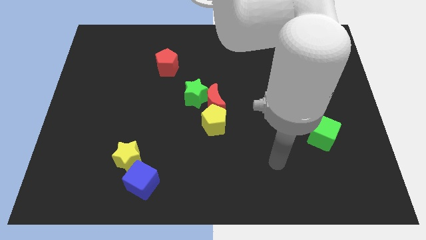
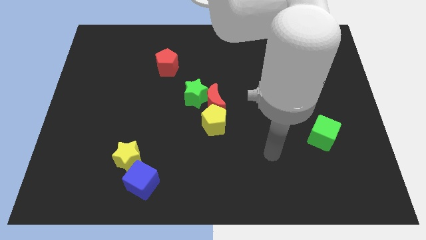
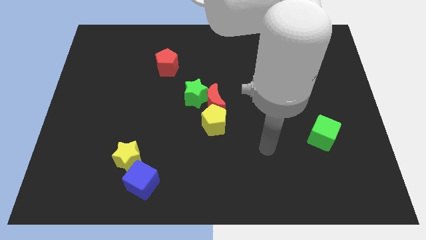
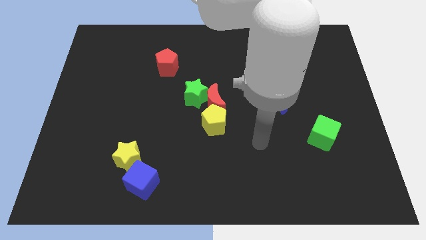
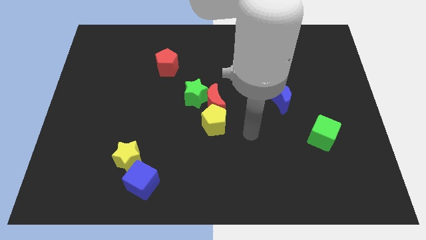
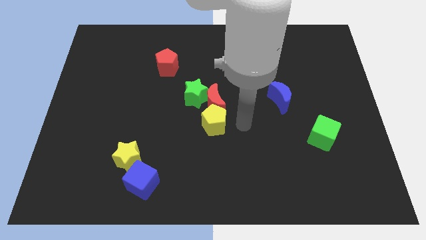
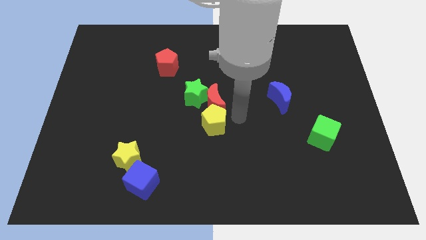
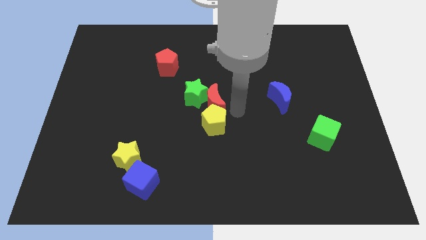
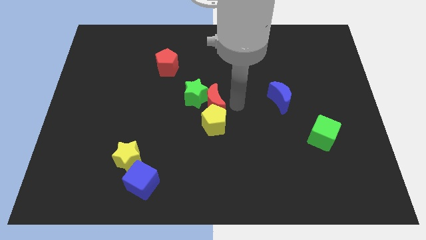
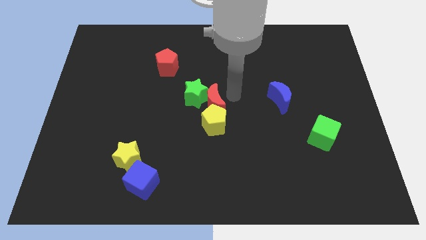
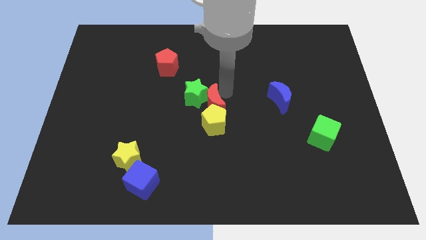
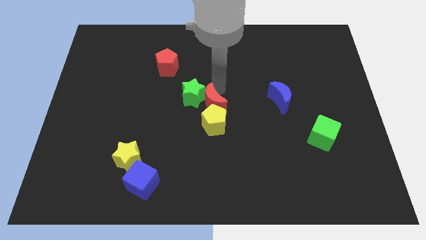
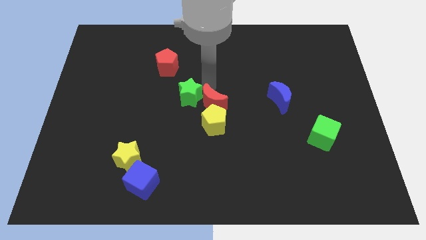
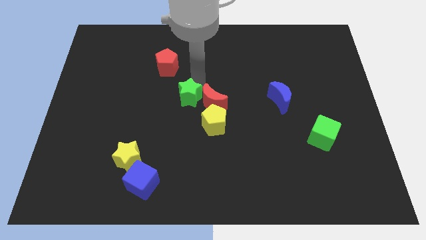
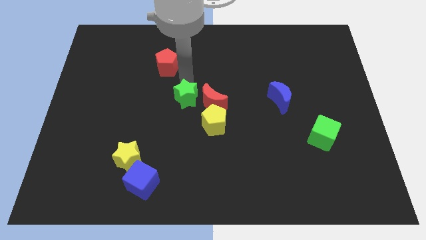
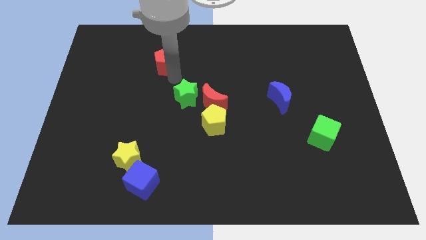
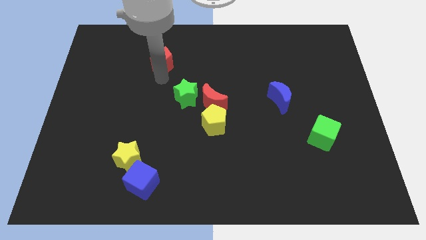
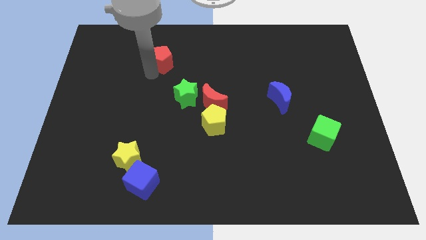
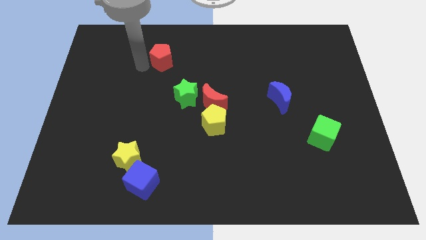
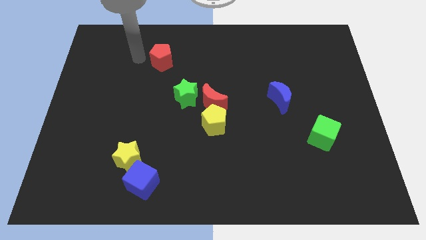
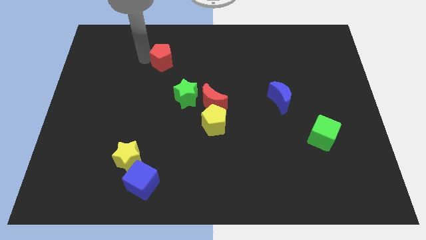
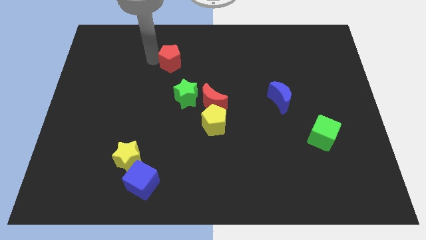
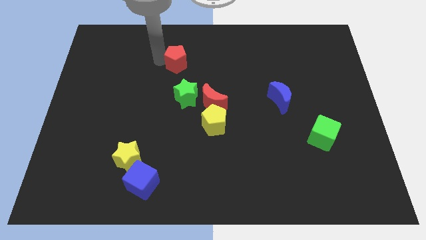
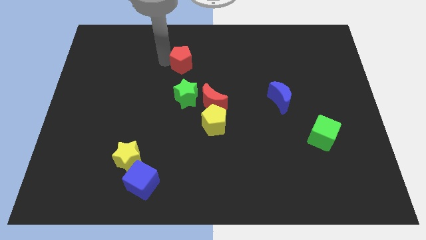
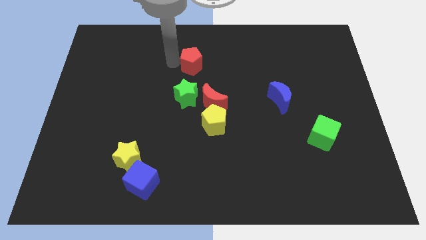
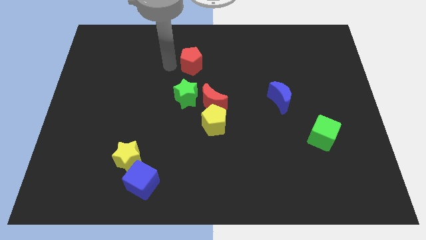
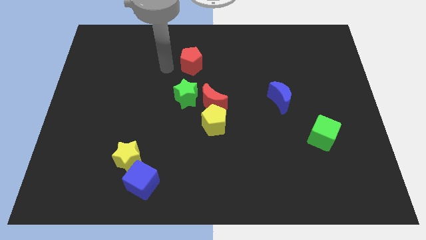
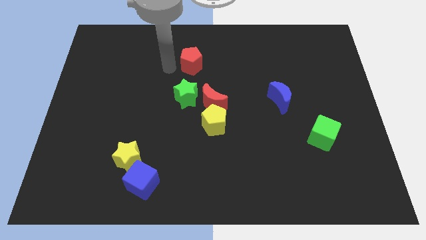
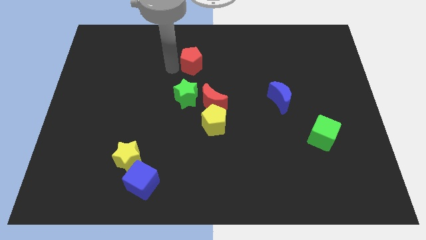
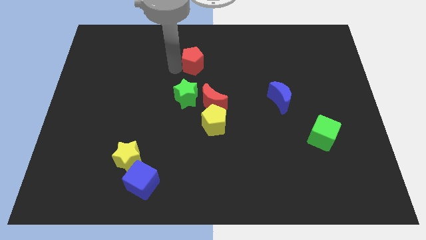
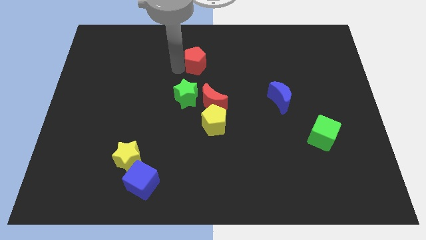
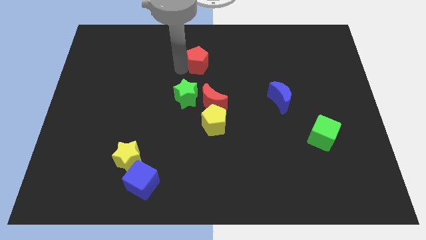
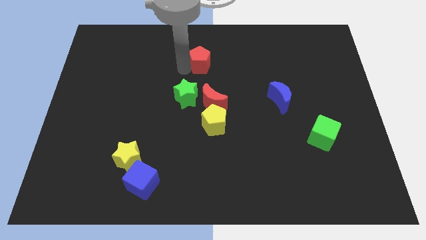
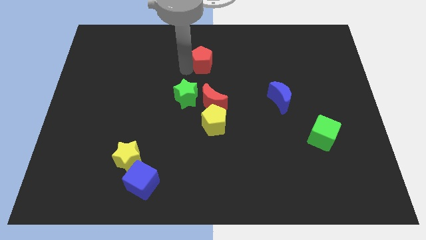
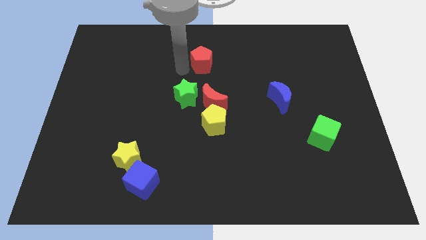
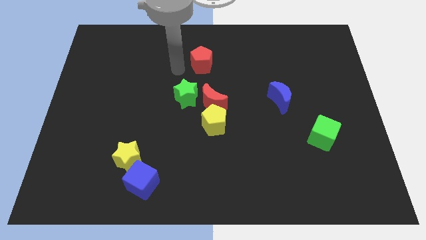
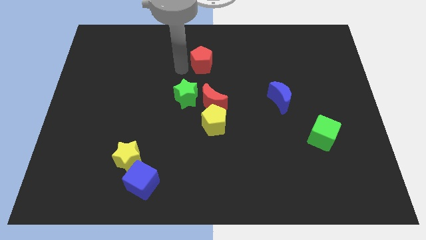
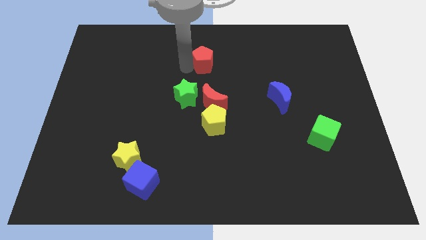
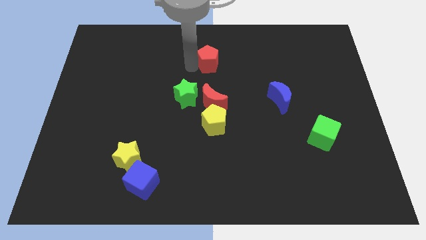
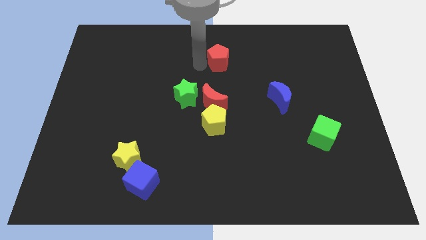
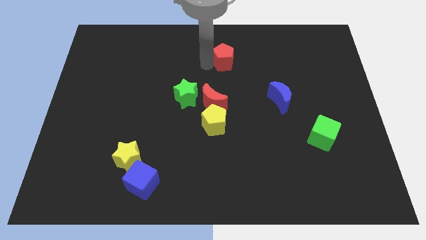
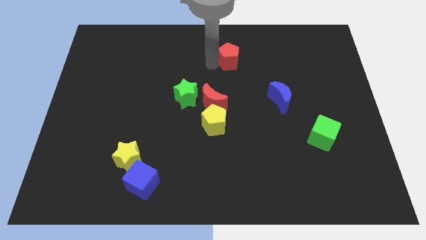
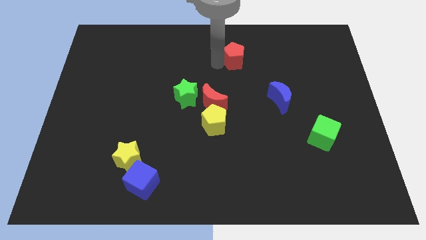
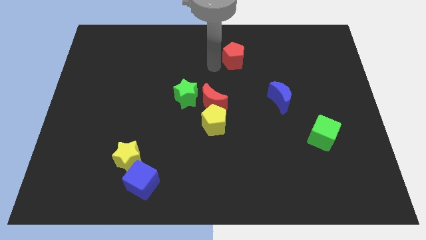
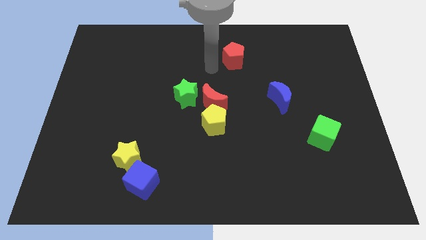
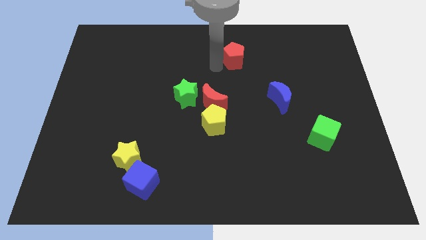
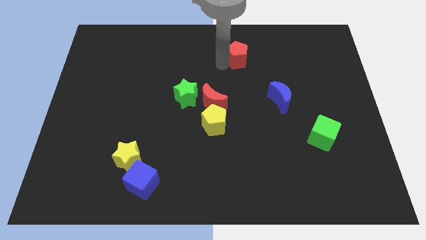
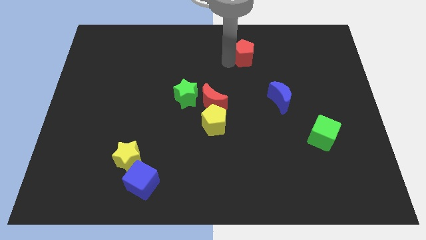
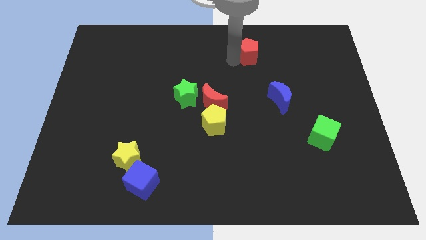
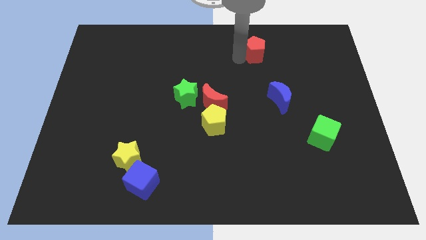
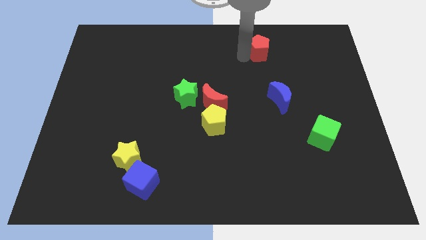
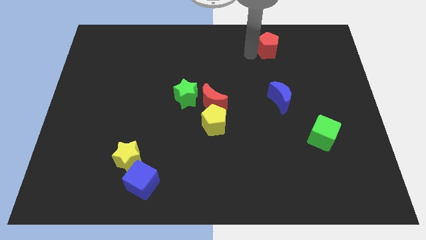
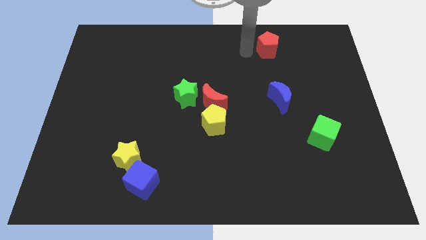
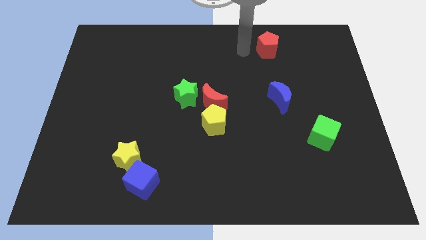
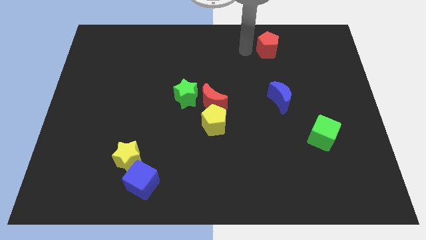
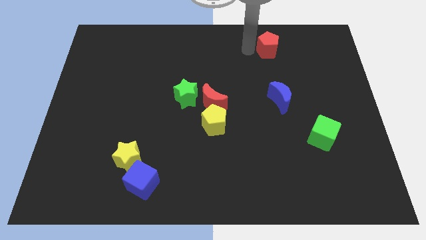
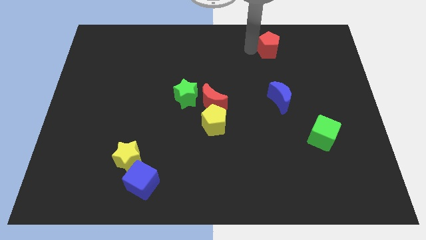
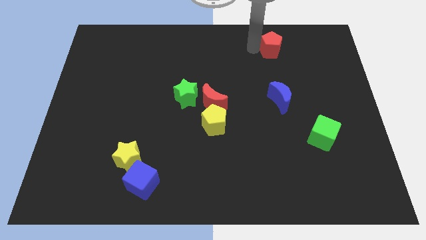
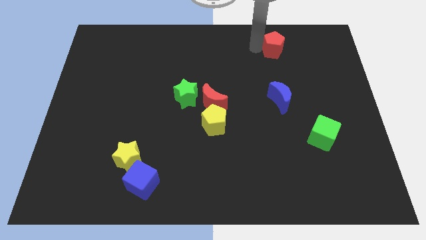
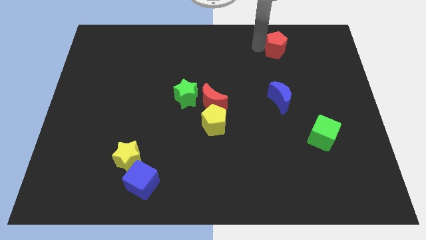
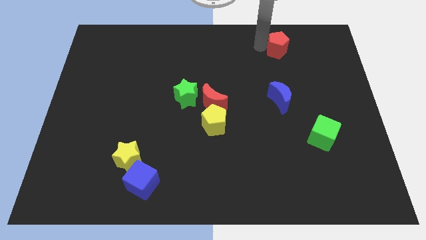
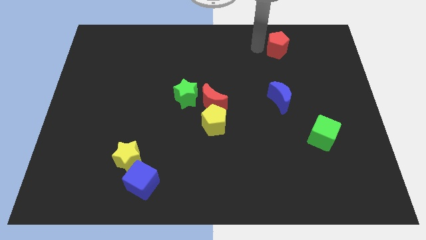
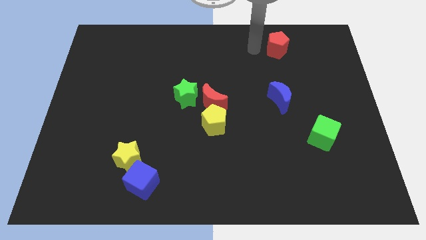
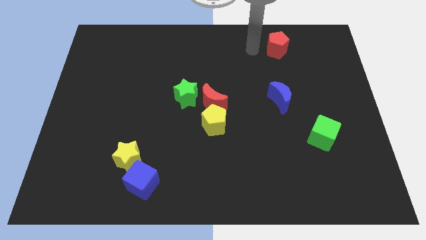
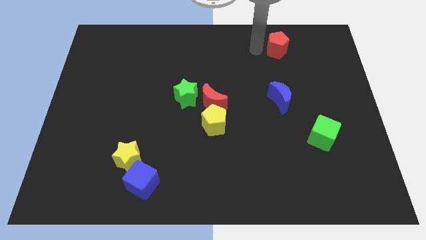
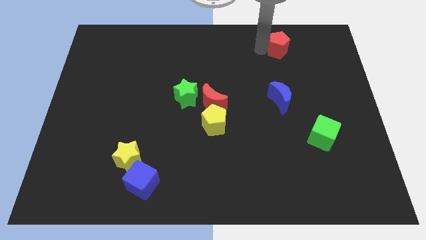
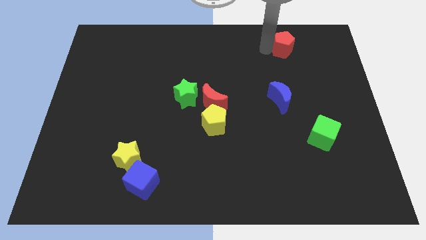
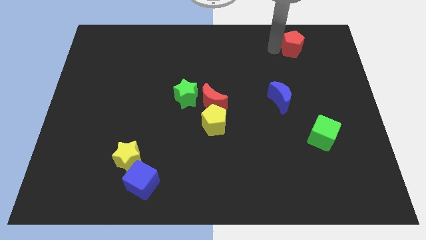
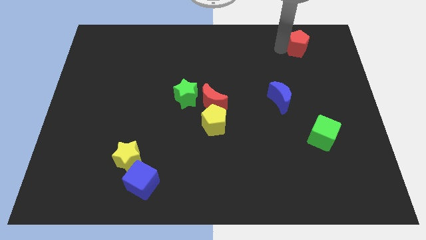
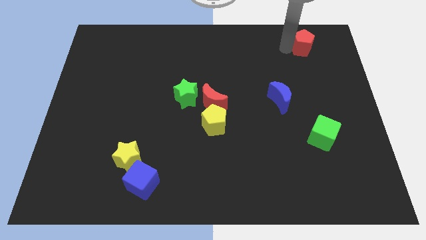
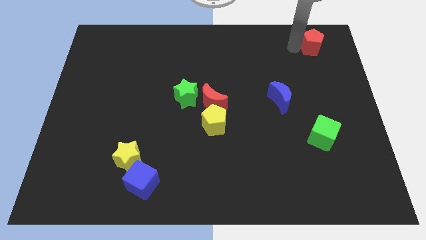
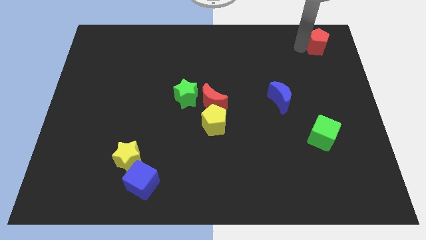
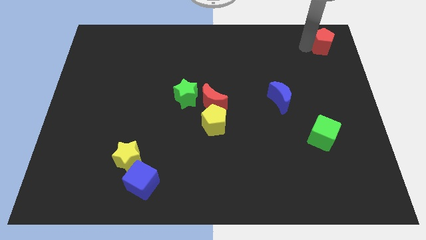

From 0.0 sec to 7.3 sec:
move the red pentagon to the top right corner
